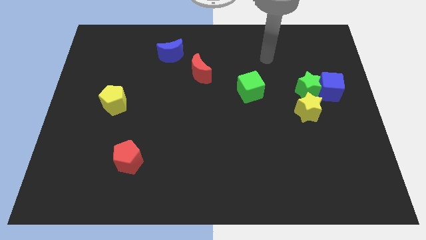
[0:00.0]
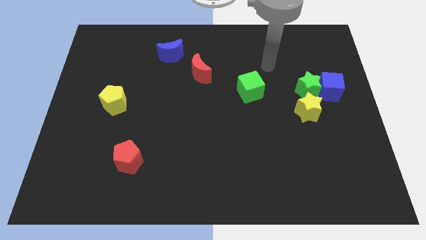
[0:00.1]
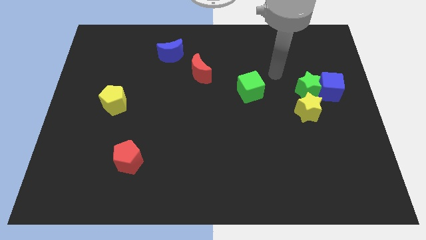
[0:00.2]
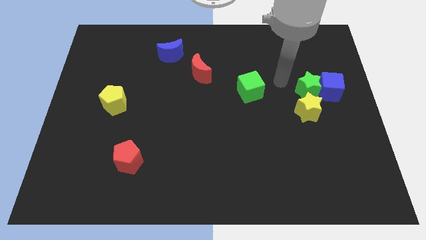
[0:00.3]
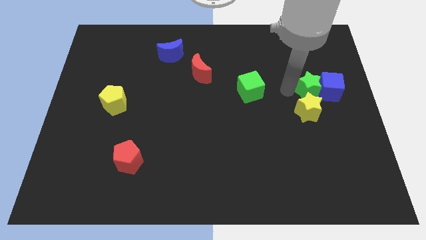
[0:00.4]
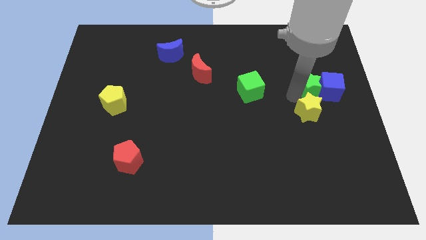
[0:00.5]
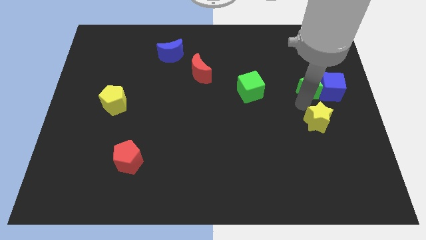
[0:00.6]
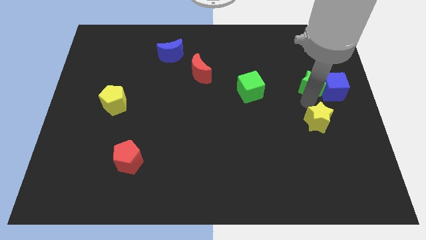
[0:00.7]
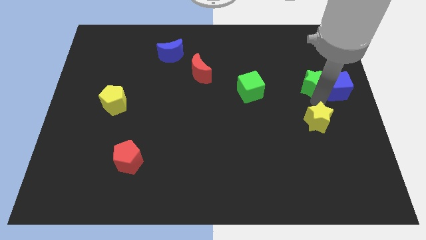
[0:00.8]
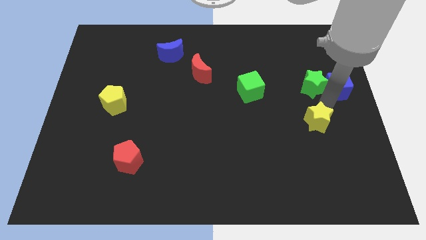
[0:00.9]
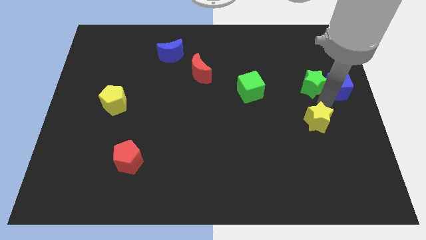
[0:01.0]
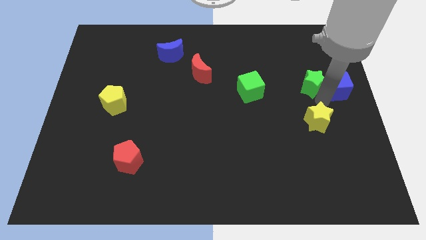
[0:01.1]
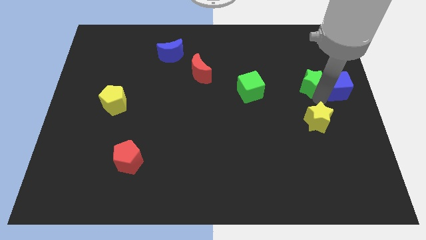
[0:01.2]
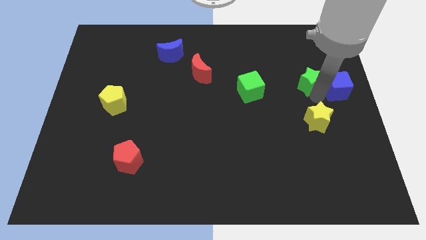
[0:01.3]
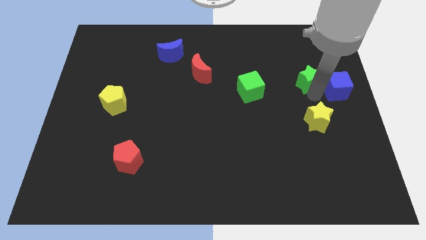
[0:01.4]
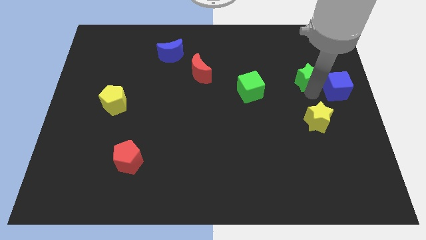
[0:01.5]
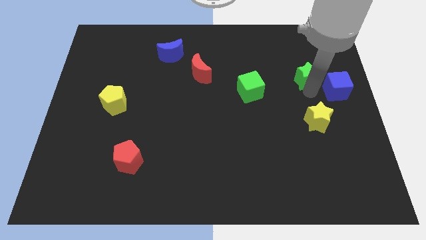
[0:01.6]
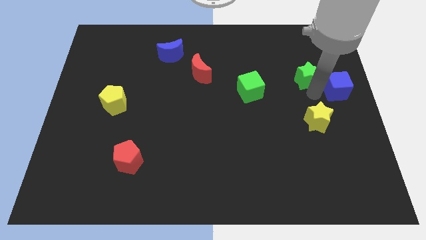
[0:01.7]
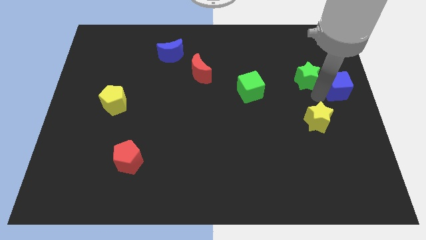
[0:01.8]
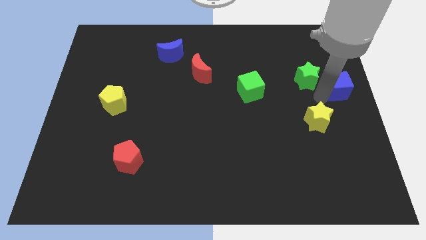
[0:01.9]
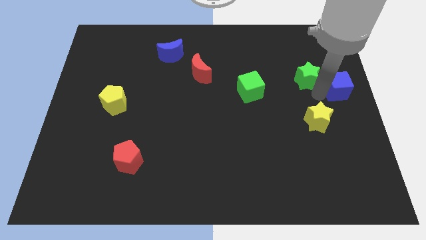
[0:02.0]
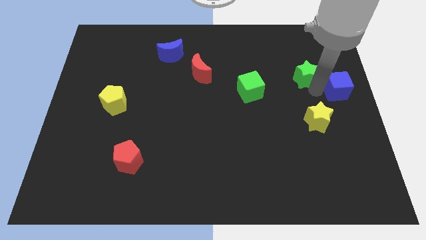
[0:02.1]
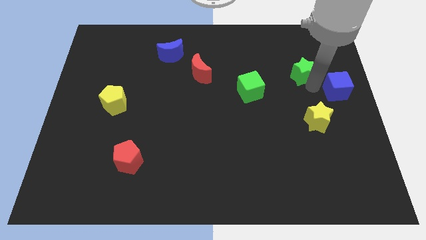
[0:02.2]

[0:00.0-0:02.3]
move the green star away from the blue cube and yellow star

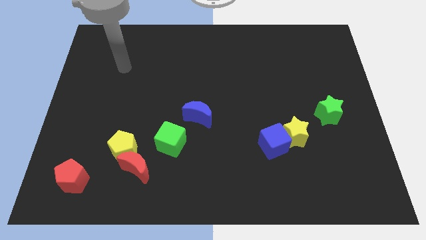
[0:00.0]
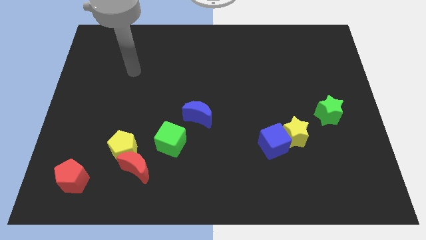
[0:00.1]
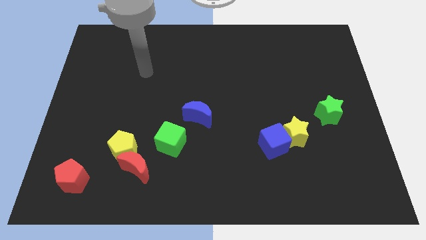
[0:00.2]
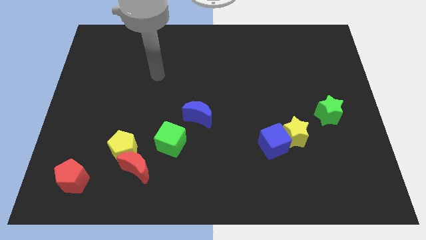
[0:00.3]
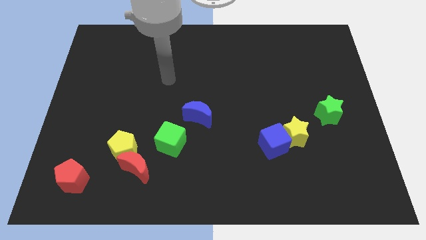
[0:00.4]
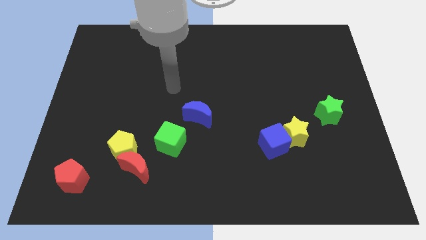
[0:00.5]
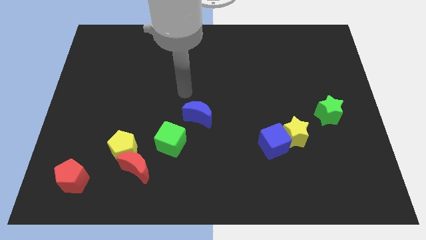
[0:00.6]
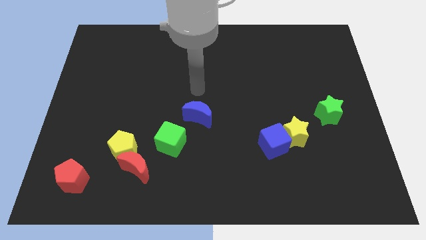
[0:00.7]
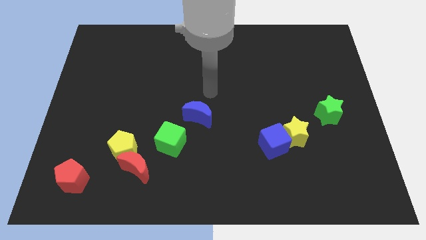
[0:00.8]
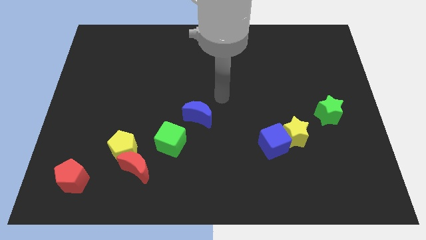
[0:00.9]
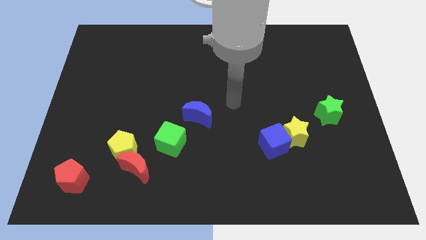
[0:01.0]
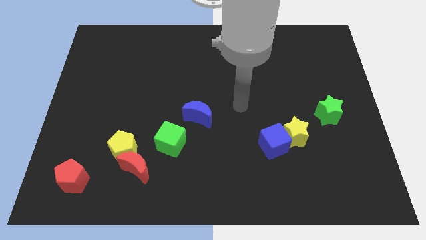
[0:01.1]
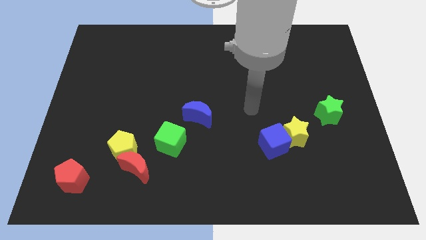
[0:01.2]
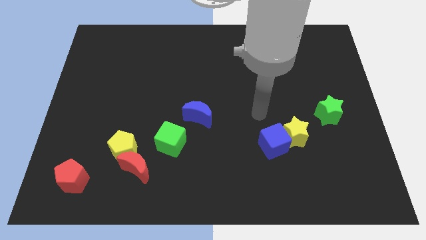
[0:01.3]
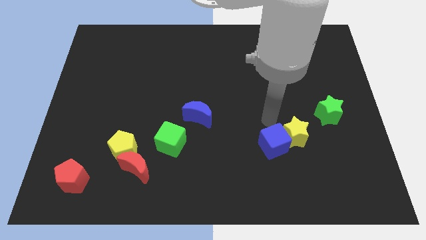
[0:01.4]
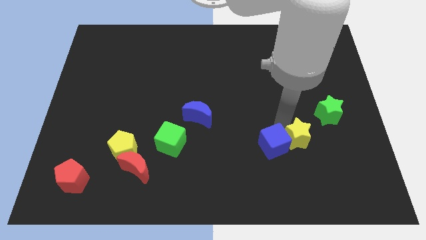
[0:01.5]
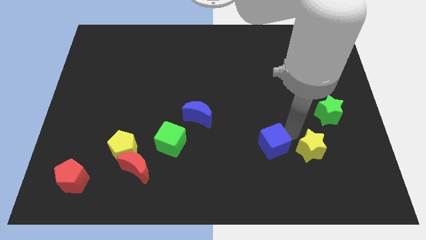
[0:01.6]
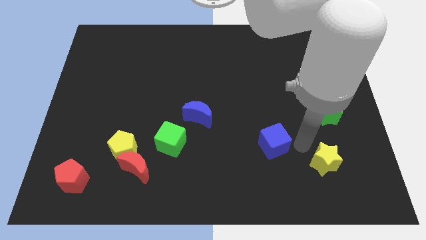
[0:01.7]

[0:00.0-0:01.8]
pull the blue cube apart from the yellow star

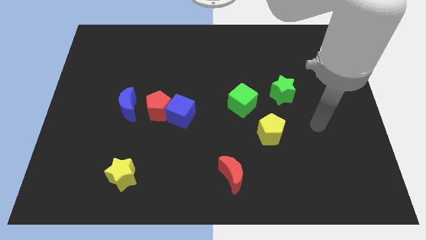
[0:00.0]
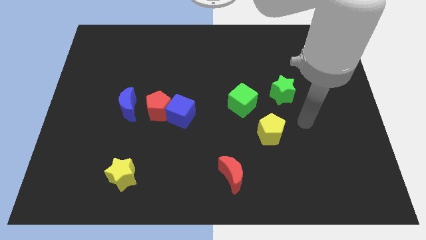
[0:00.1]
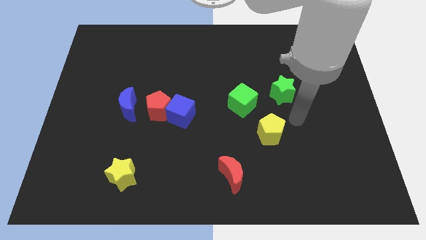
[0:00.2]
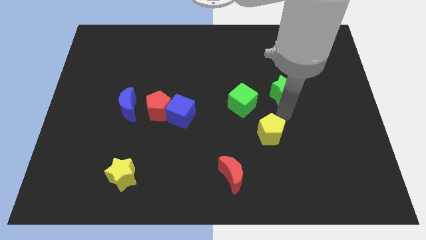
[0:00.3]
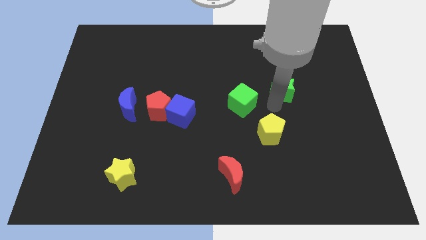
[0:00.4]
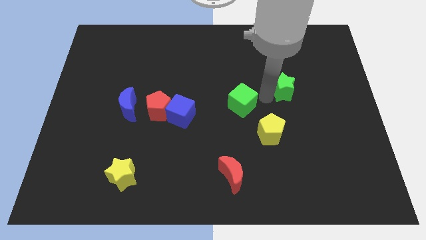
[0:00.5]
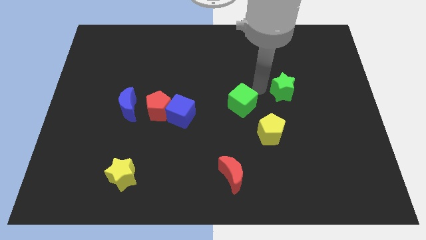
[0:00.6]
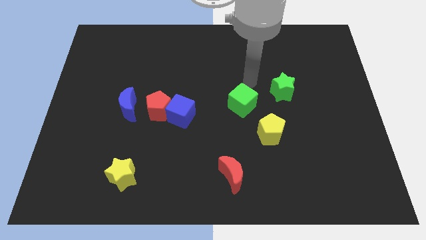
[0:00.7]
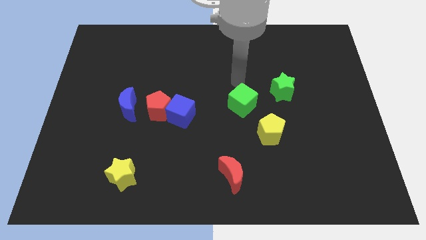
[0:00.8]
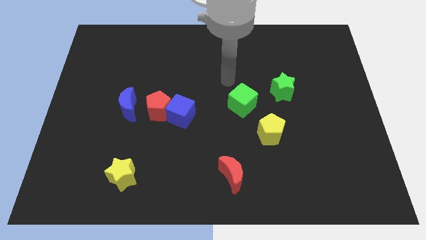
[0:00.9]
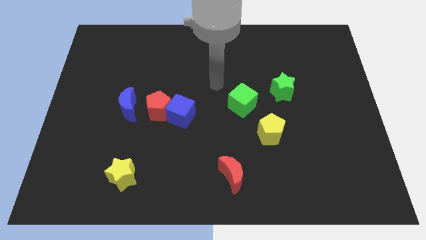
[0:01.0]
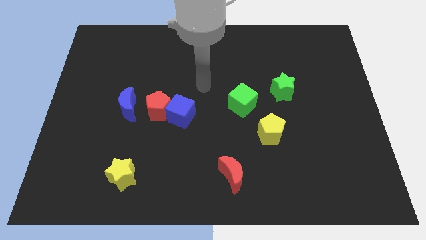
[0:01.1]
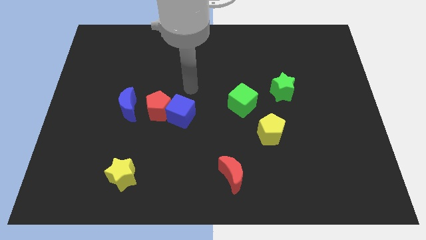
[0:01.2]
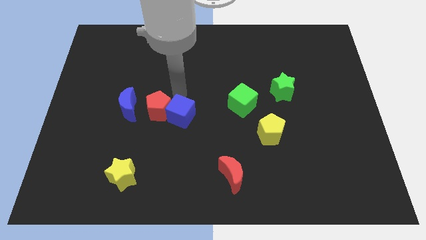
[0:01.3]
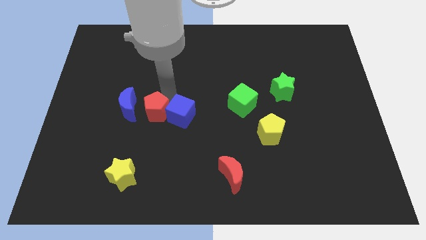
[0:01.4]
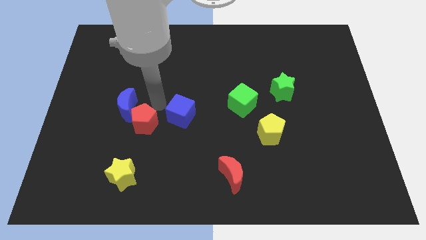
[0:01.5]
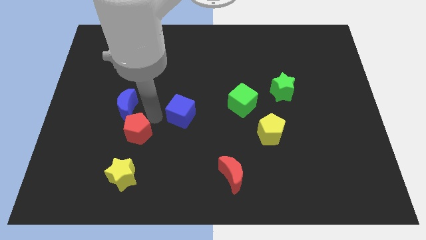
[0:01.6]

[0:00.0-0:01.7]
separate the blue cube from the red pentagon

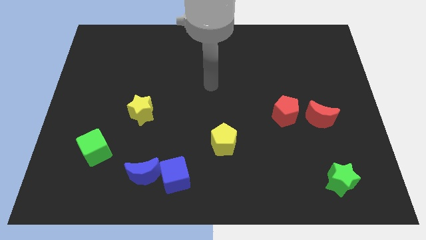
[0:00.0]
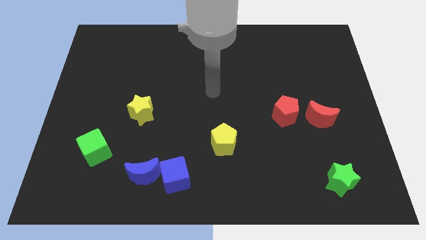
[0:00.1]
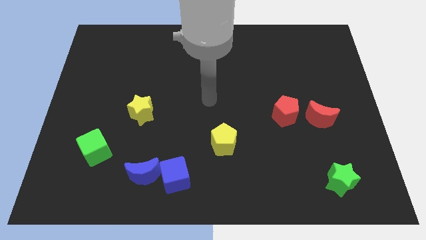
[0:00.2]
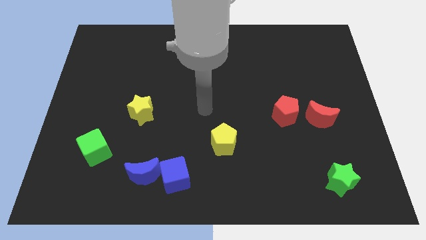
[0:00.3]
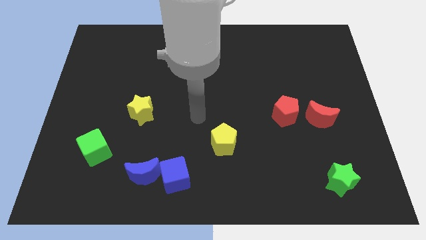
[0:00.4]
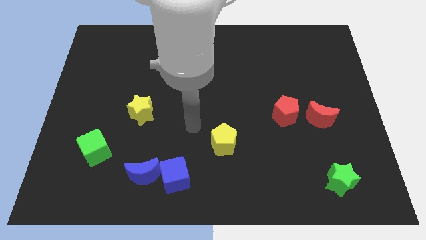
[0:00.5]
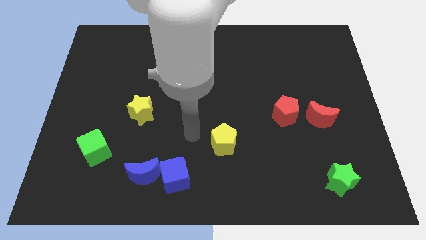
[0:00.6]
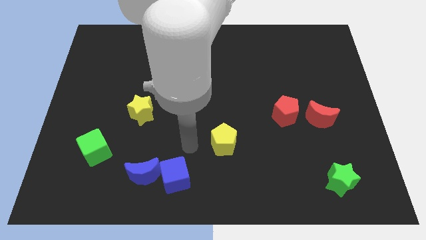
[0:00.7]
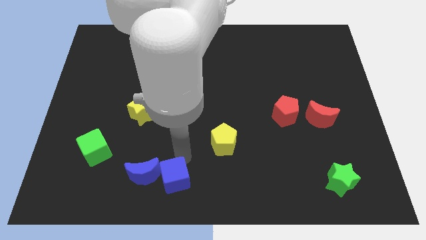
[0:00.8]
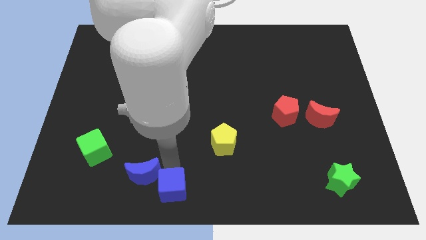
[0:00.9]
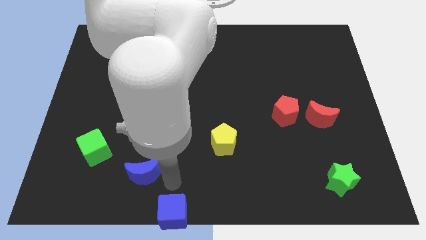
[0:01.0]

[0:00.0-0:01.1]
pull the blue moon apart from the blue cube

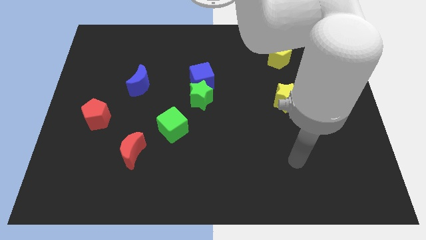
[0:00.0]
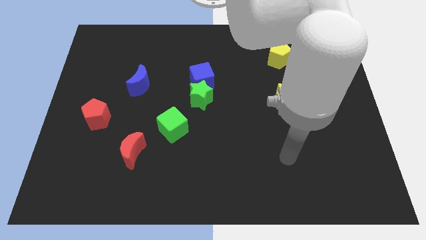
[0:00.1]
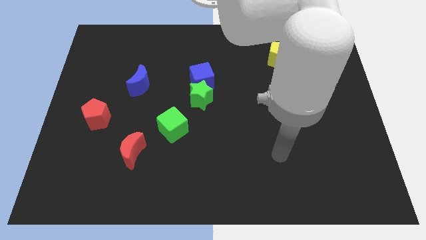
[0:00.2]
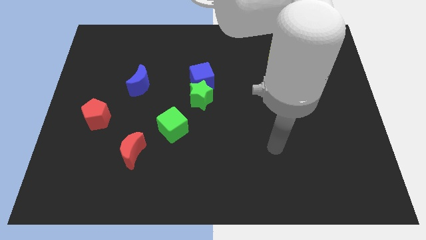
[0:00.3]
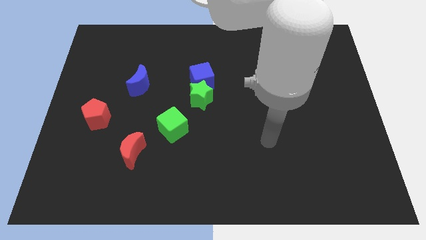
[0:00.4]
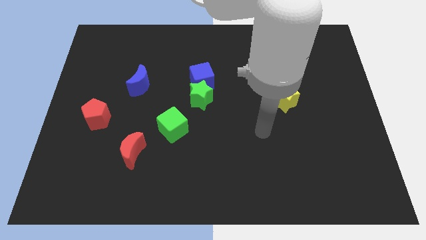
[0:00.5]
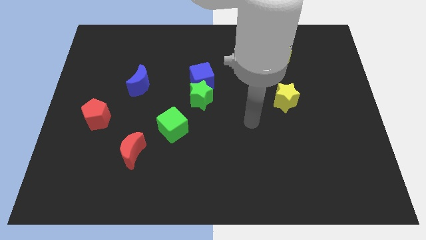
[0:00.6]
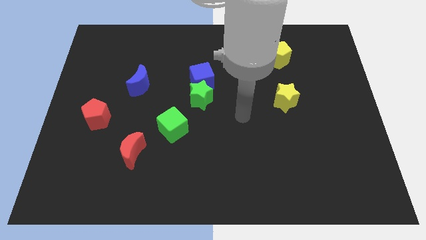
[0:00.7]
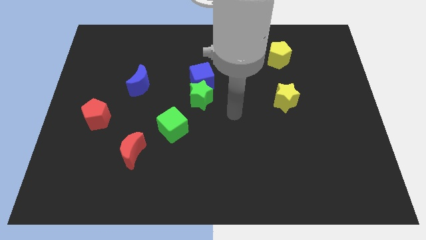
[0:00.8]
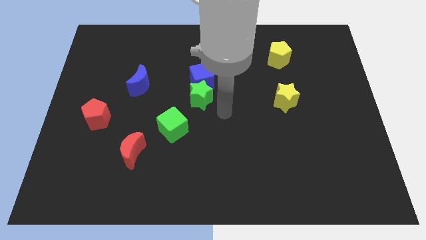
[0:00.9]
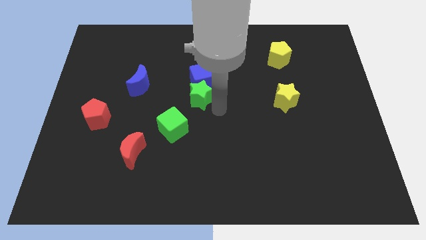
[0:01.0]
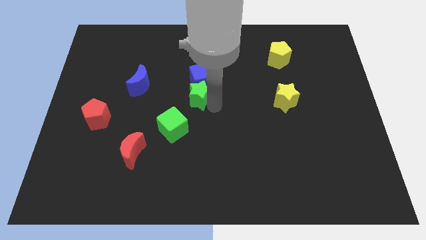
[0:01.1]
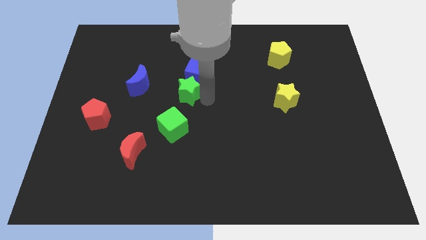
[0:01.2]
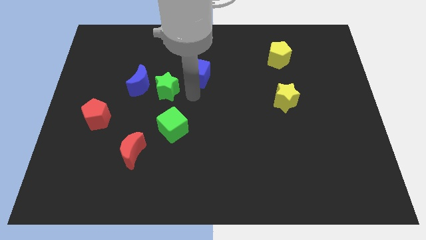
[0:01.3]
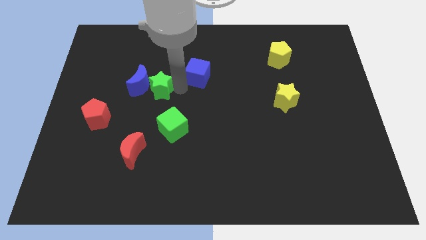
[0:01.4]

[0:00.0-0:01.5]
separate the blue cube from the green star

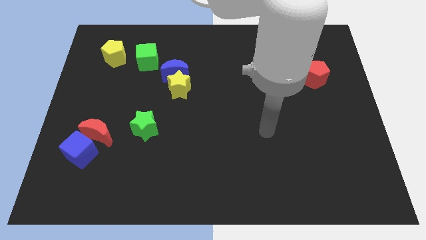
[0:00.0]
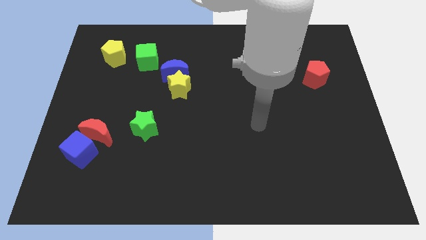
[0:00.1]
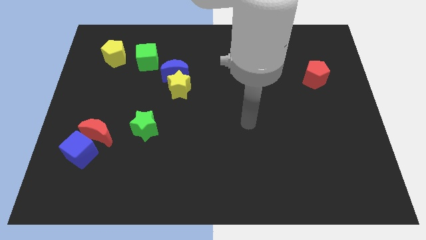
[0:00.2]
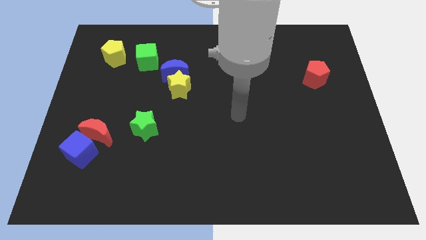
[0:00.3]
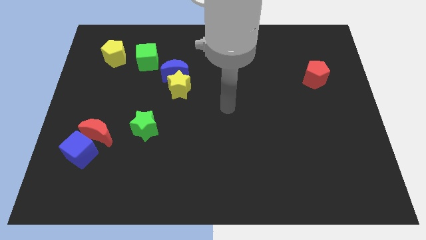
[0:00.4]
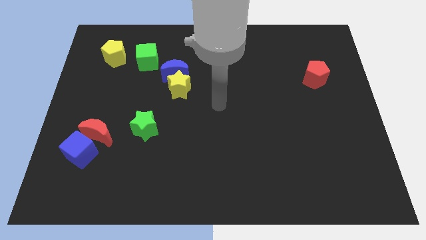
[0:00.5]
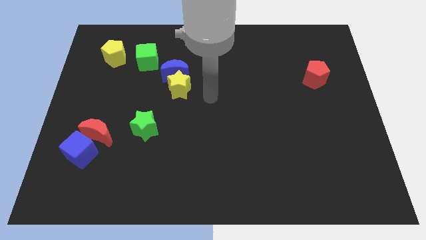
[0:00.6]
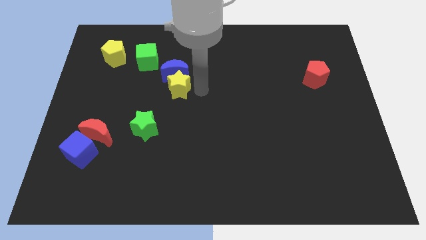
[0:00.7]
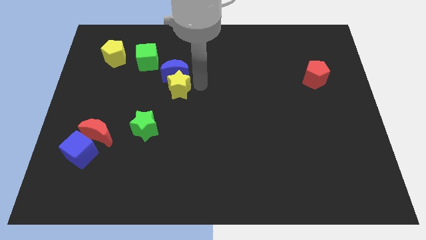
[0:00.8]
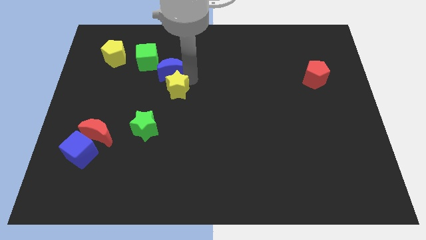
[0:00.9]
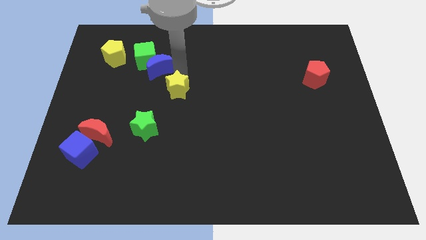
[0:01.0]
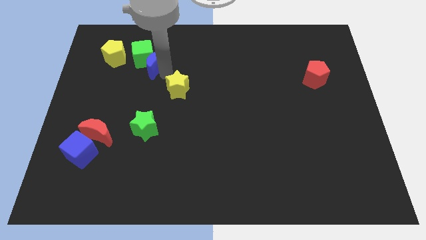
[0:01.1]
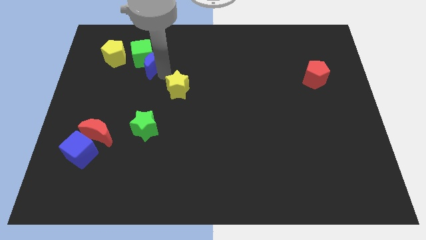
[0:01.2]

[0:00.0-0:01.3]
move the yellow star away from the blue moon
